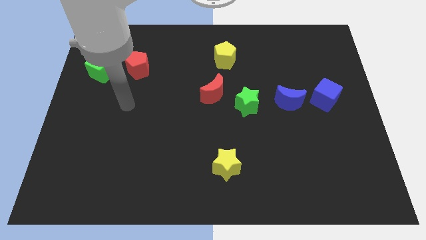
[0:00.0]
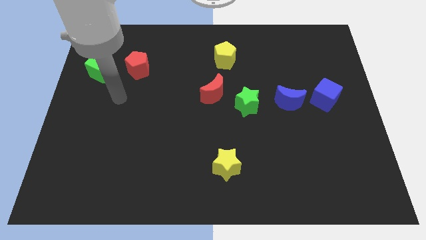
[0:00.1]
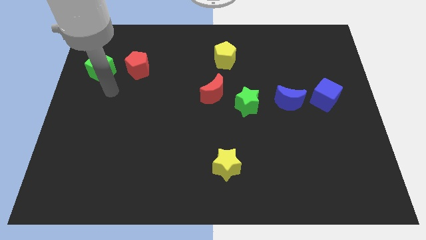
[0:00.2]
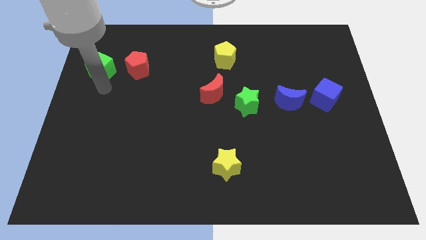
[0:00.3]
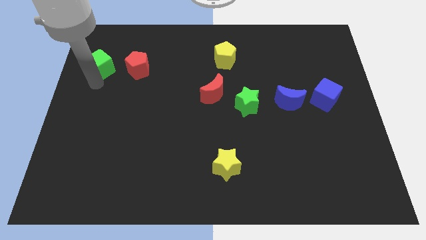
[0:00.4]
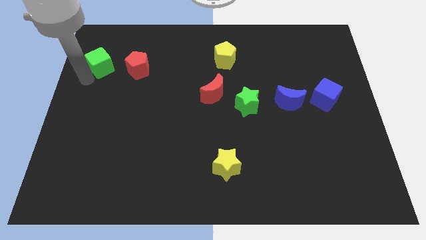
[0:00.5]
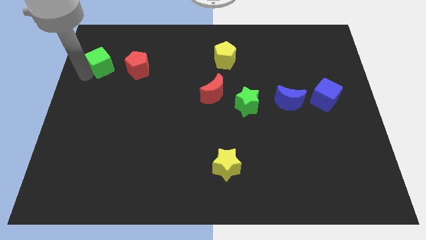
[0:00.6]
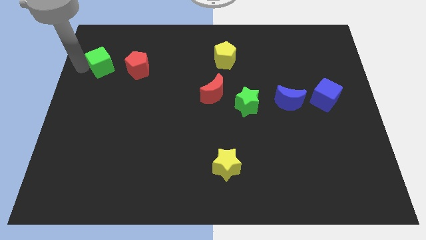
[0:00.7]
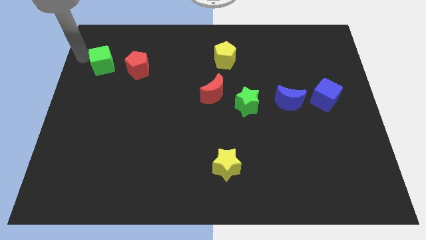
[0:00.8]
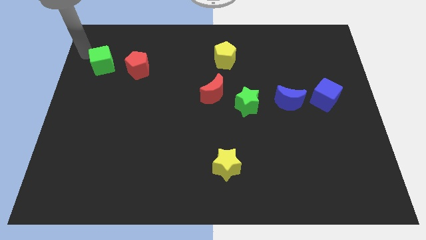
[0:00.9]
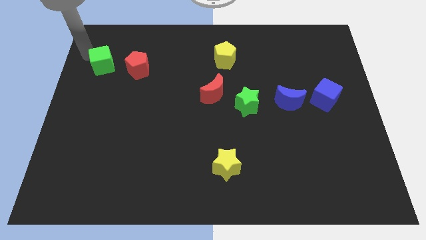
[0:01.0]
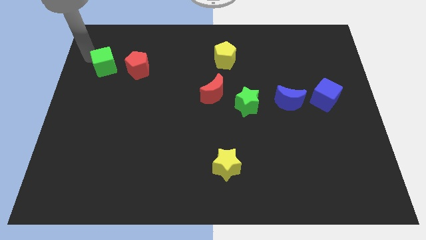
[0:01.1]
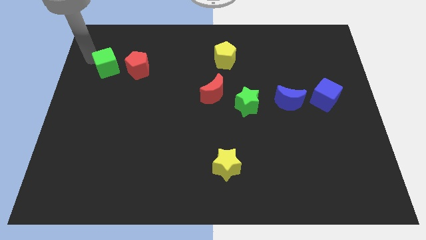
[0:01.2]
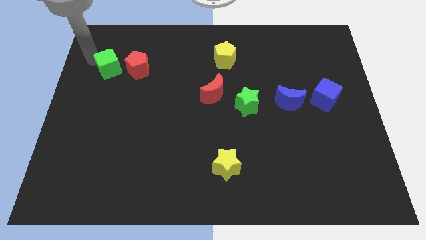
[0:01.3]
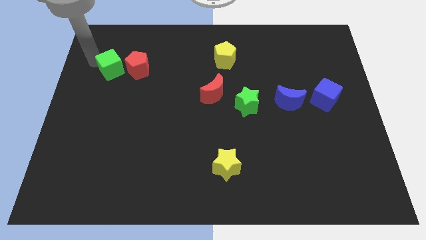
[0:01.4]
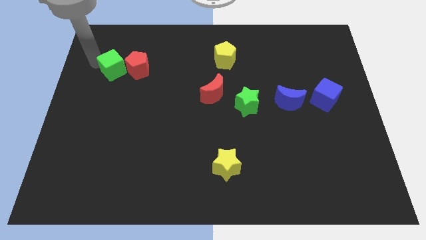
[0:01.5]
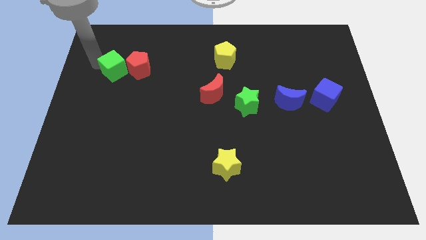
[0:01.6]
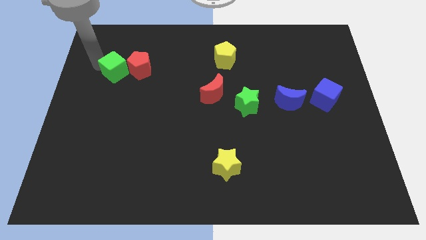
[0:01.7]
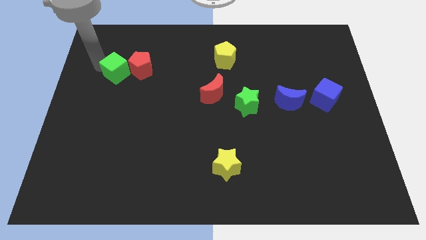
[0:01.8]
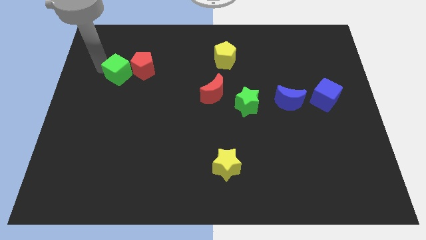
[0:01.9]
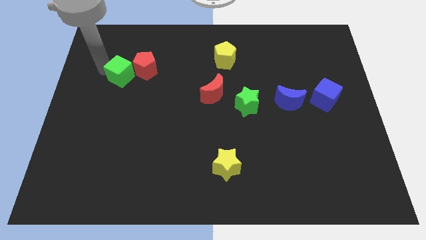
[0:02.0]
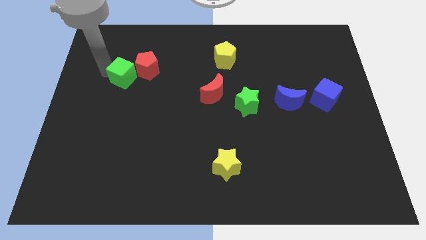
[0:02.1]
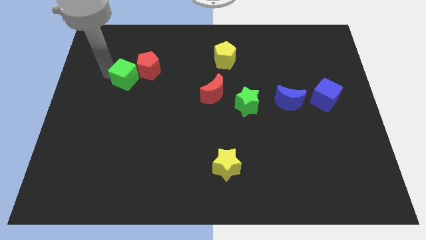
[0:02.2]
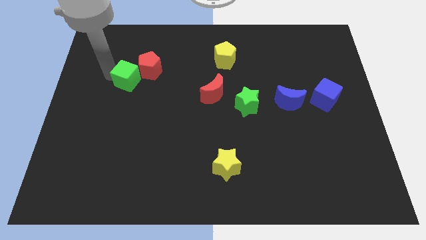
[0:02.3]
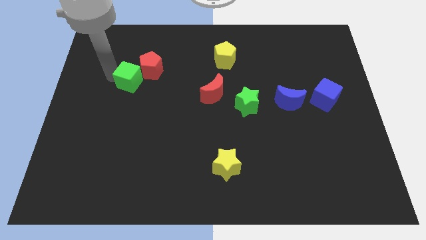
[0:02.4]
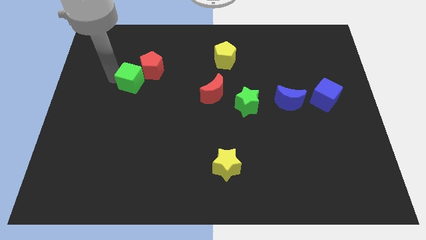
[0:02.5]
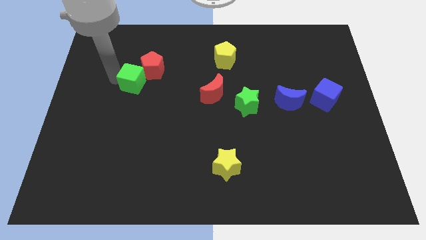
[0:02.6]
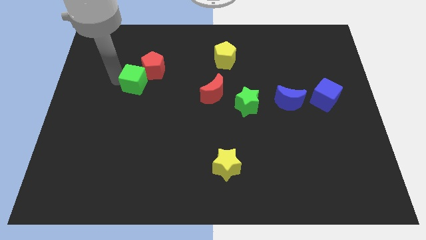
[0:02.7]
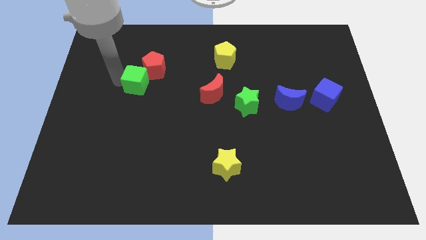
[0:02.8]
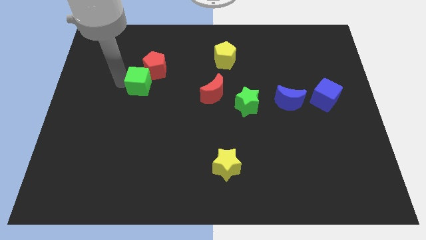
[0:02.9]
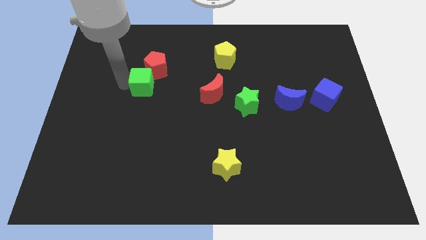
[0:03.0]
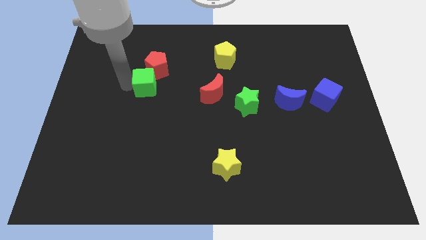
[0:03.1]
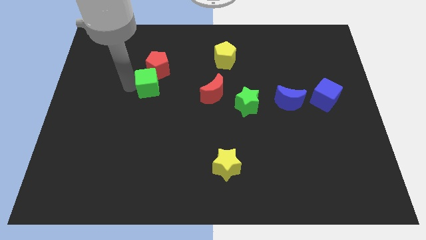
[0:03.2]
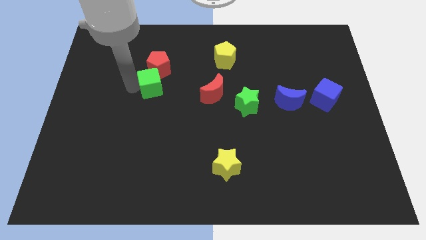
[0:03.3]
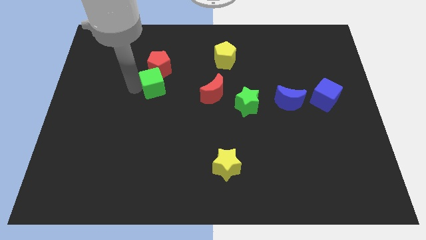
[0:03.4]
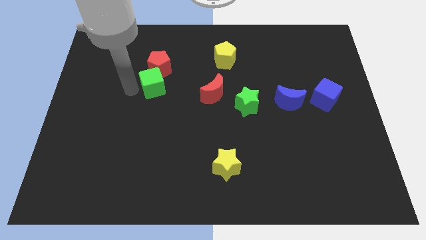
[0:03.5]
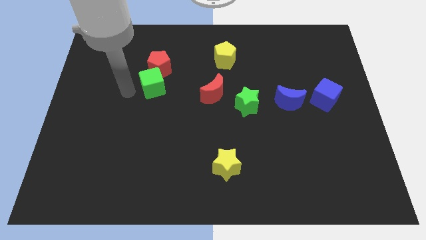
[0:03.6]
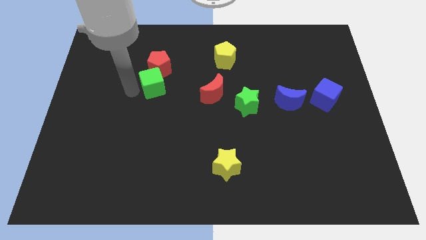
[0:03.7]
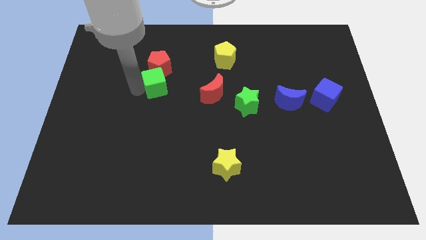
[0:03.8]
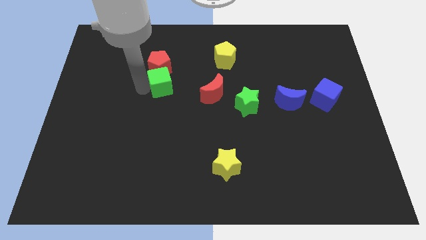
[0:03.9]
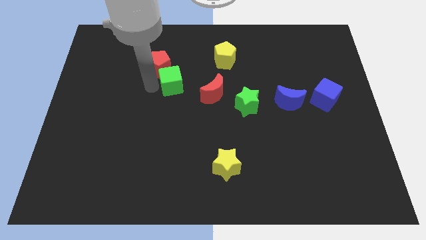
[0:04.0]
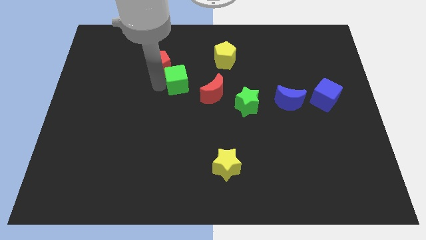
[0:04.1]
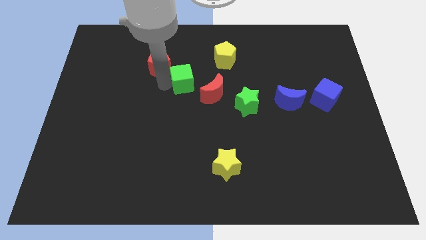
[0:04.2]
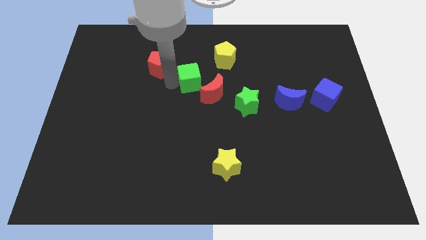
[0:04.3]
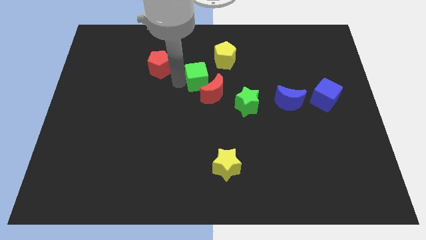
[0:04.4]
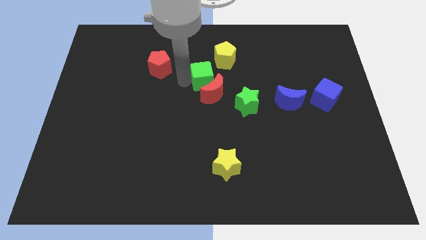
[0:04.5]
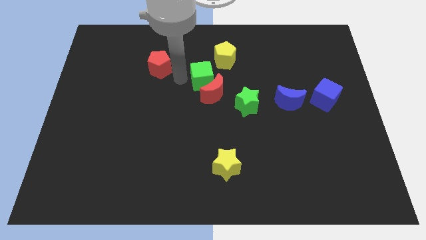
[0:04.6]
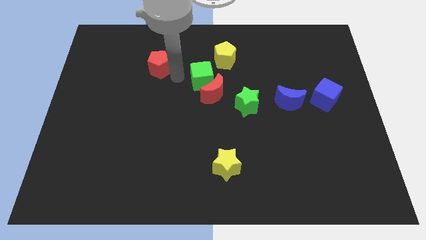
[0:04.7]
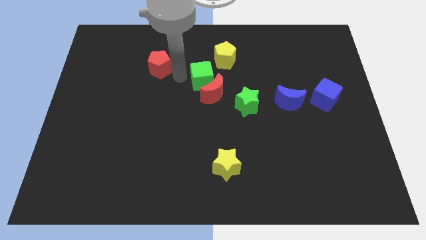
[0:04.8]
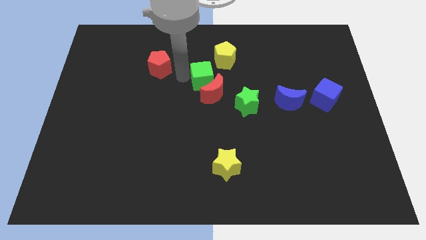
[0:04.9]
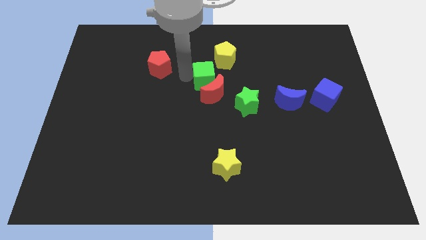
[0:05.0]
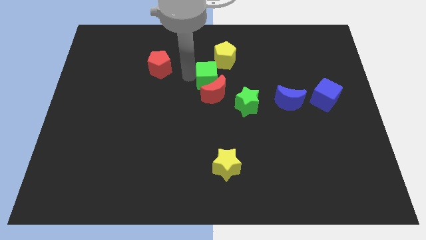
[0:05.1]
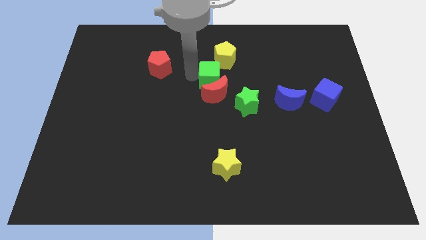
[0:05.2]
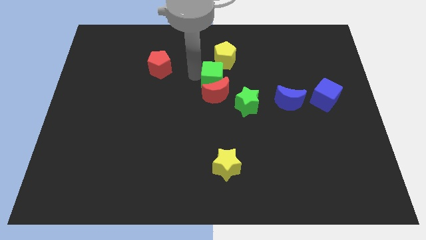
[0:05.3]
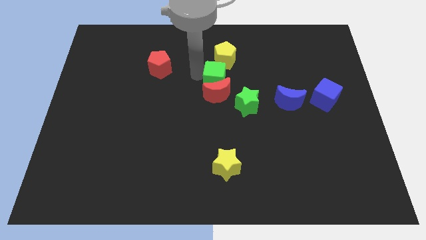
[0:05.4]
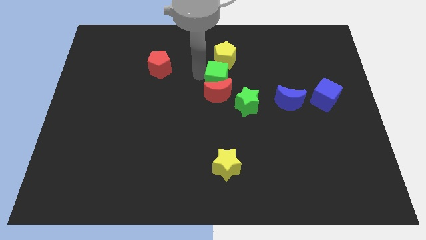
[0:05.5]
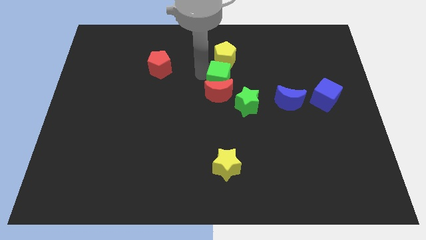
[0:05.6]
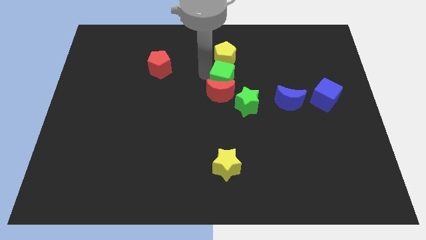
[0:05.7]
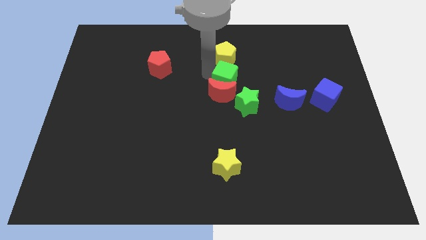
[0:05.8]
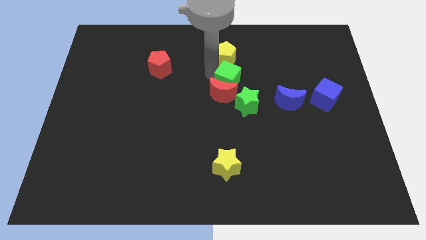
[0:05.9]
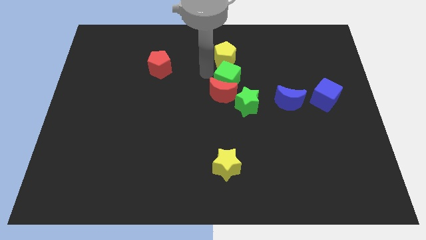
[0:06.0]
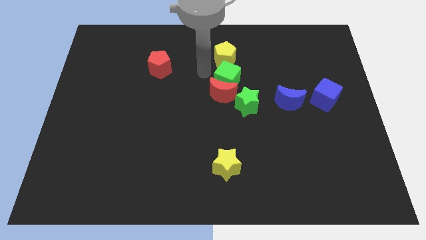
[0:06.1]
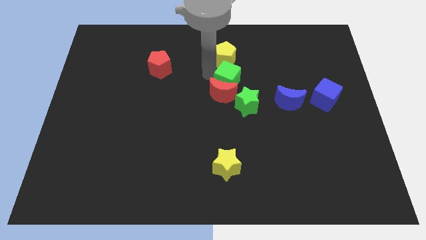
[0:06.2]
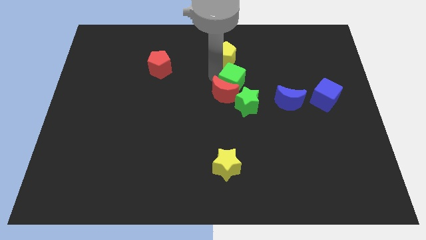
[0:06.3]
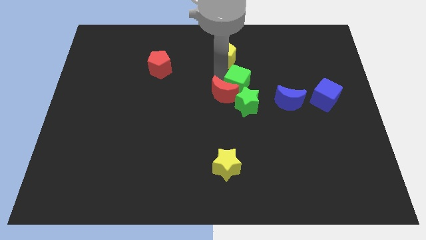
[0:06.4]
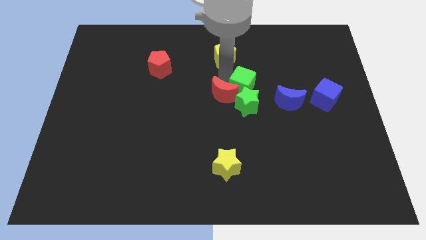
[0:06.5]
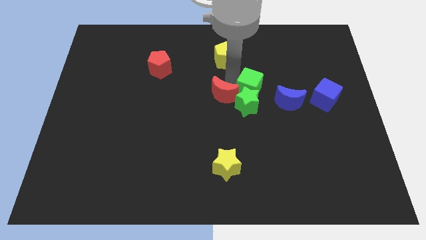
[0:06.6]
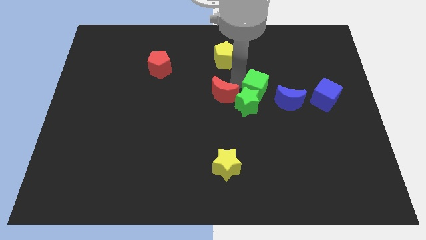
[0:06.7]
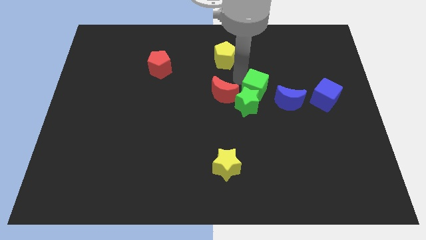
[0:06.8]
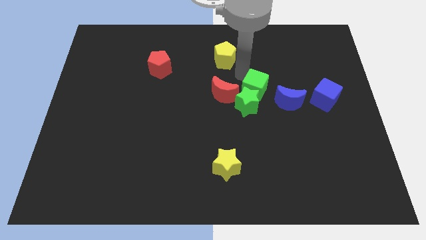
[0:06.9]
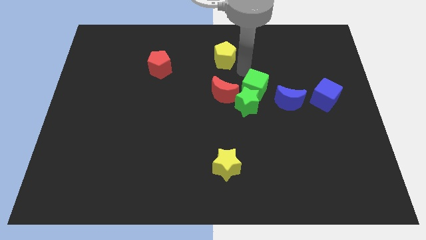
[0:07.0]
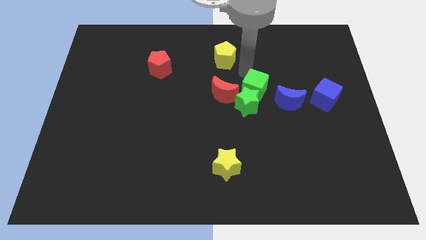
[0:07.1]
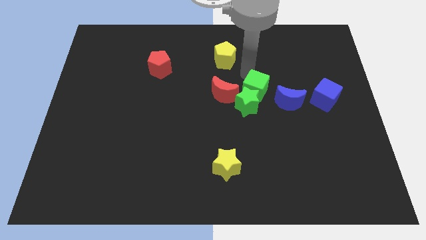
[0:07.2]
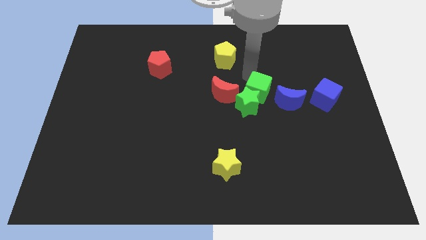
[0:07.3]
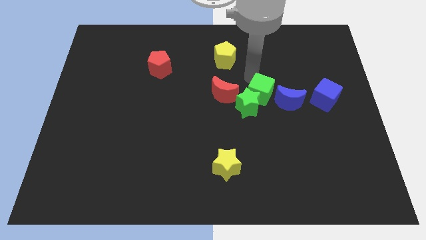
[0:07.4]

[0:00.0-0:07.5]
slide the green cube right of the green star

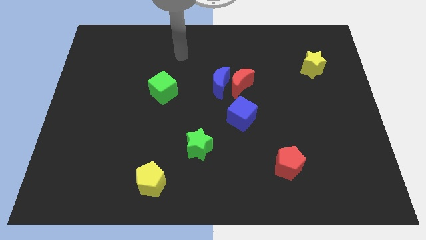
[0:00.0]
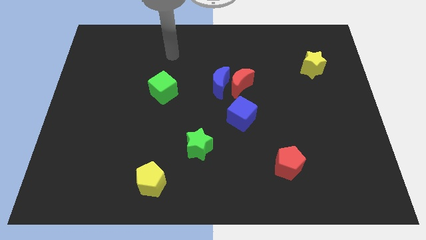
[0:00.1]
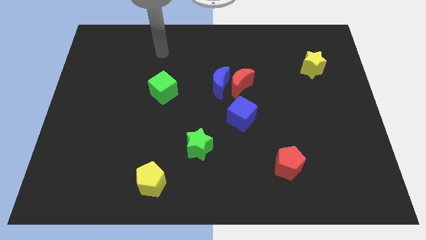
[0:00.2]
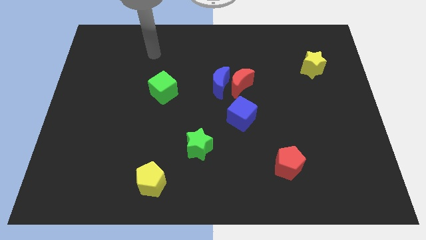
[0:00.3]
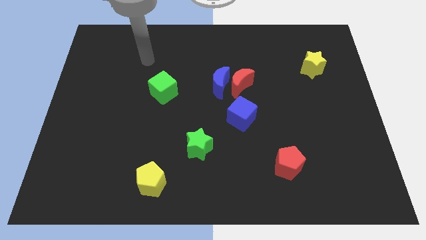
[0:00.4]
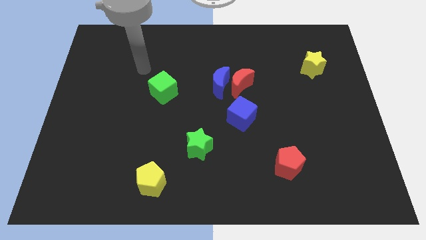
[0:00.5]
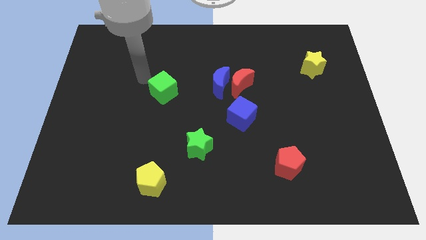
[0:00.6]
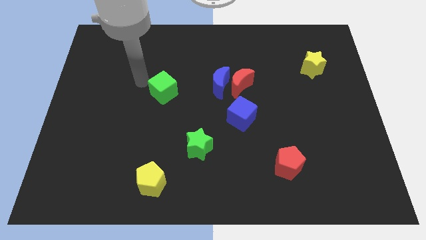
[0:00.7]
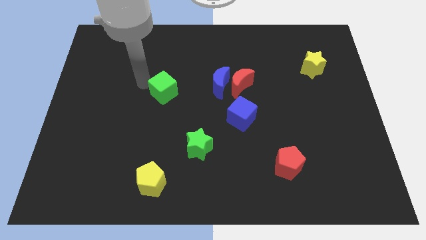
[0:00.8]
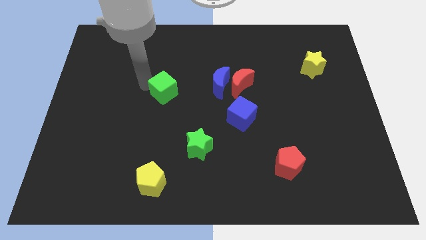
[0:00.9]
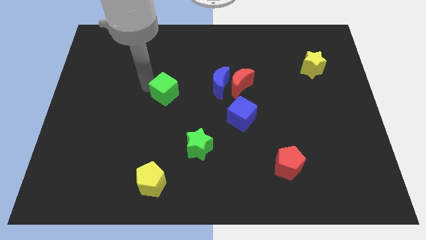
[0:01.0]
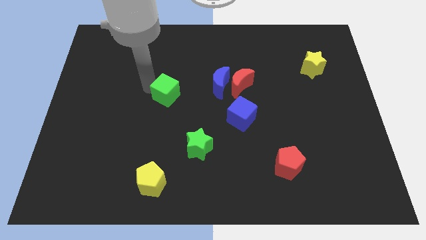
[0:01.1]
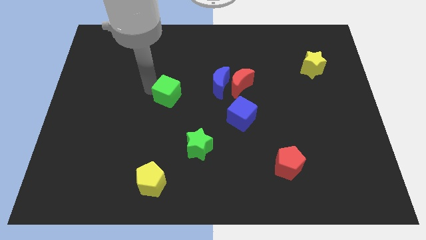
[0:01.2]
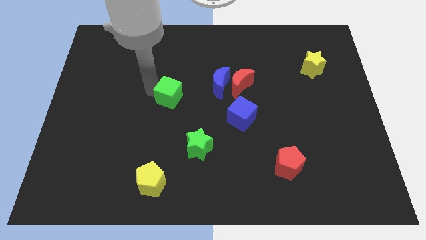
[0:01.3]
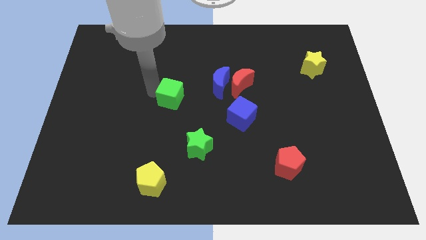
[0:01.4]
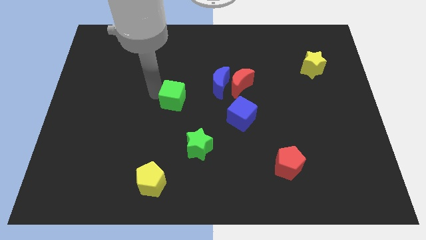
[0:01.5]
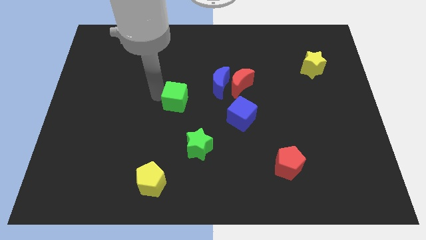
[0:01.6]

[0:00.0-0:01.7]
push the green cube diagonally down and to the left of the blue moon
